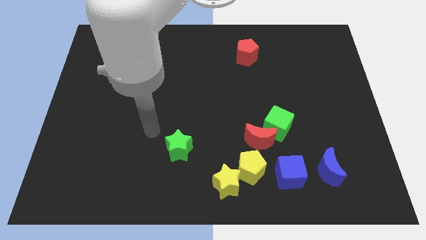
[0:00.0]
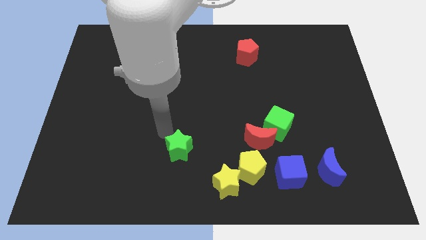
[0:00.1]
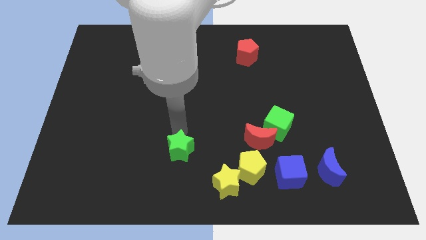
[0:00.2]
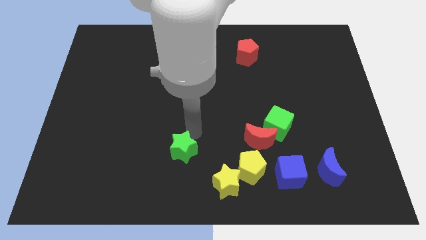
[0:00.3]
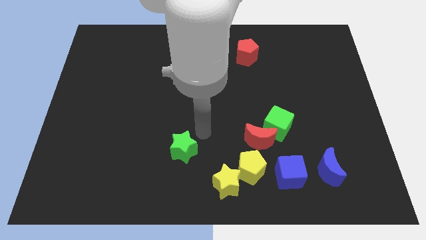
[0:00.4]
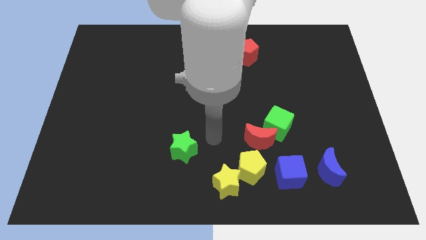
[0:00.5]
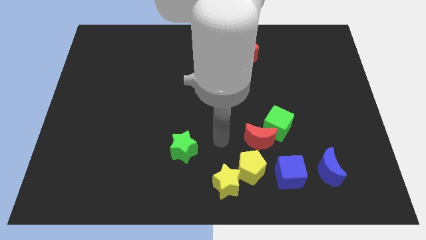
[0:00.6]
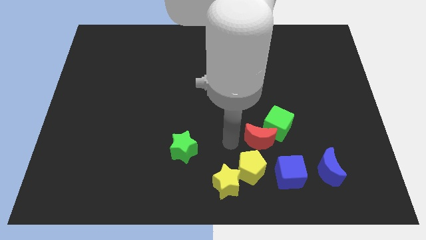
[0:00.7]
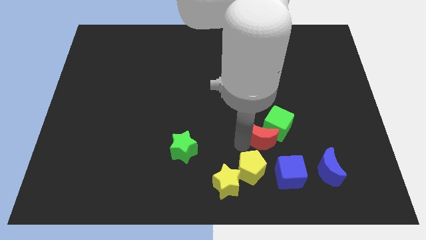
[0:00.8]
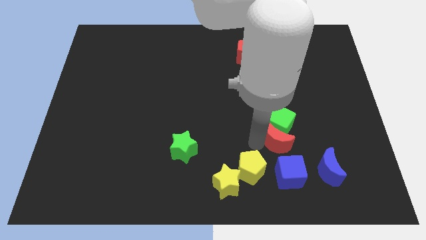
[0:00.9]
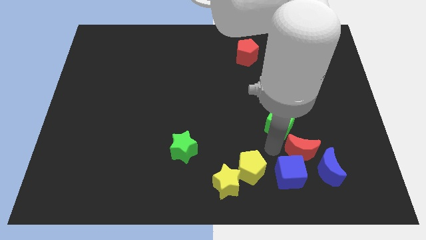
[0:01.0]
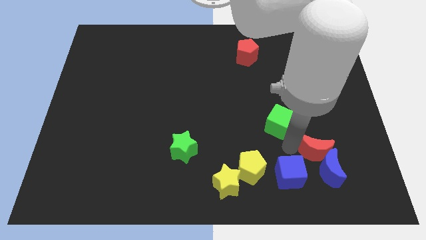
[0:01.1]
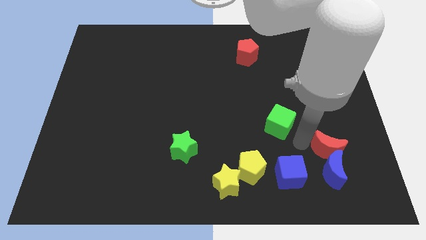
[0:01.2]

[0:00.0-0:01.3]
move the green cube away from the red moon

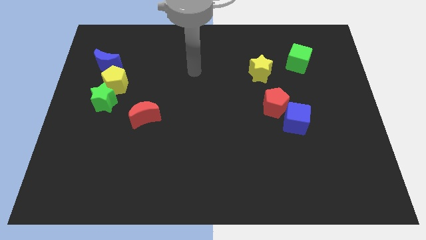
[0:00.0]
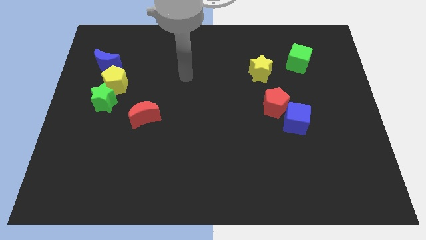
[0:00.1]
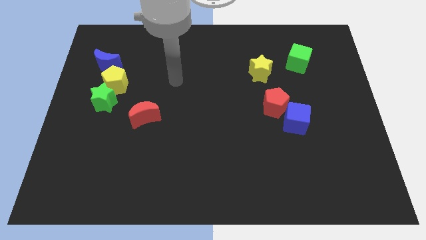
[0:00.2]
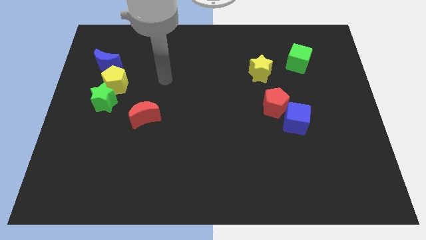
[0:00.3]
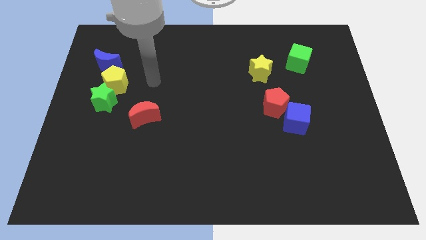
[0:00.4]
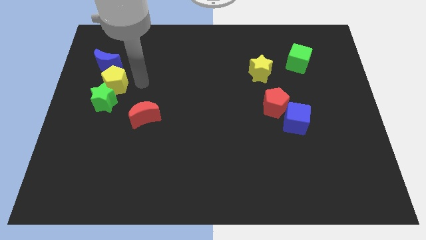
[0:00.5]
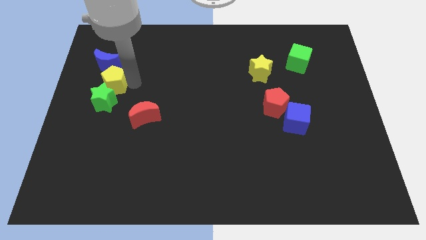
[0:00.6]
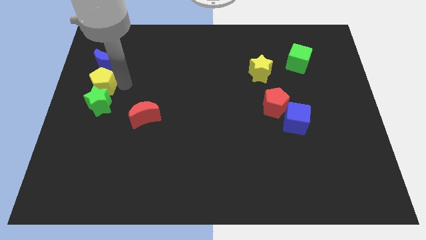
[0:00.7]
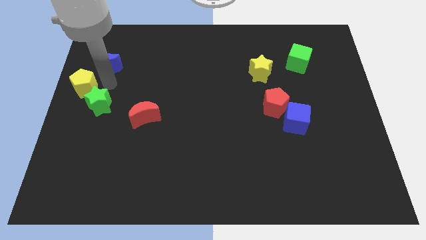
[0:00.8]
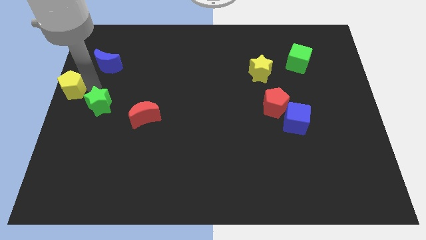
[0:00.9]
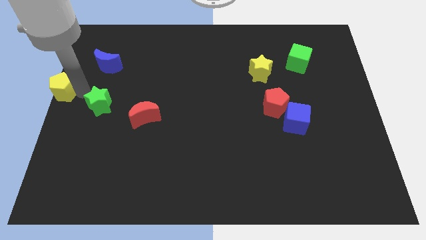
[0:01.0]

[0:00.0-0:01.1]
move the green star away from the yellow pentagon

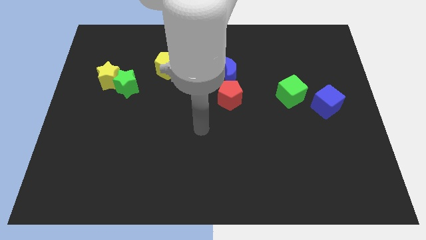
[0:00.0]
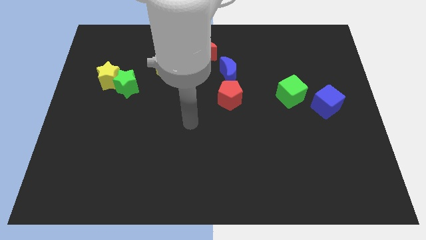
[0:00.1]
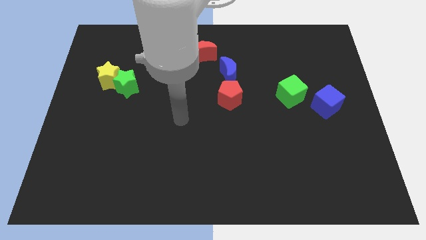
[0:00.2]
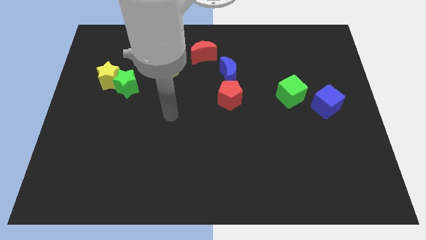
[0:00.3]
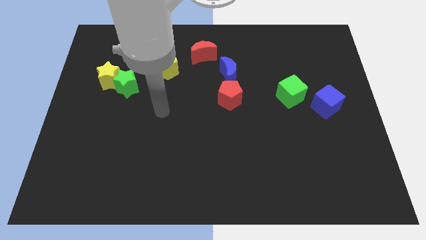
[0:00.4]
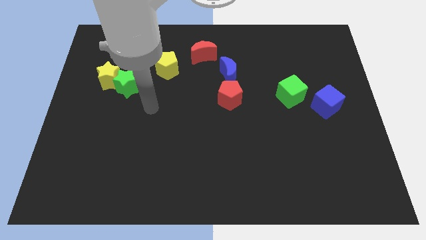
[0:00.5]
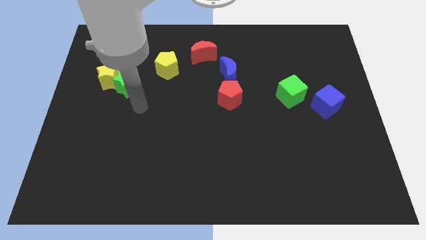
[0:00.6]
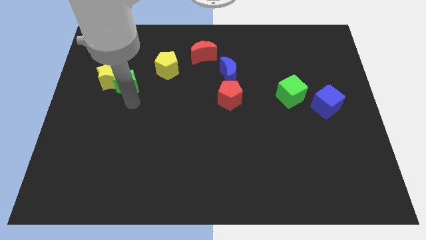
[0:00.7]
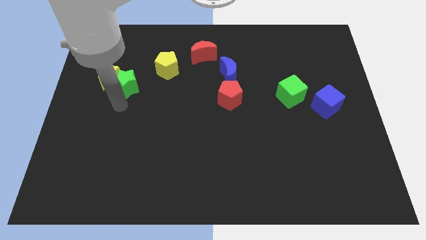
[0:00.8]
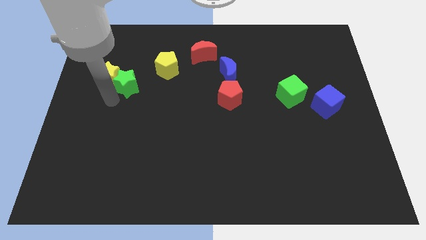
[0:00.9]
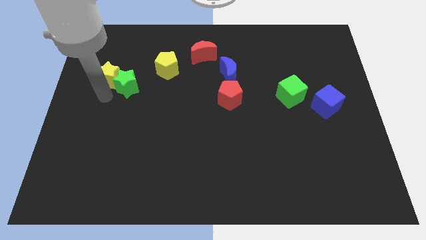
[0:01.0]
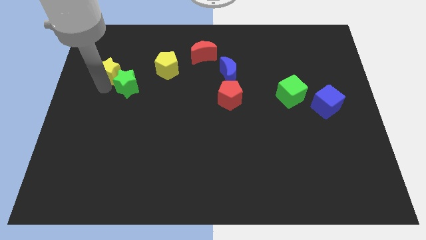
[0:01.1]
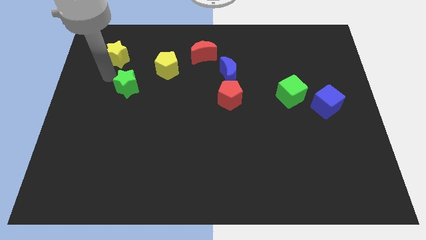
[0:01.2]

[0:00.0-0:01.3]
move the green star away from the yellow star

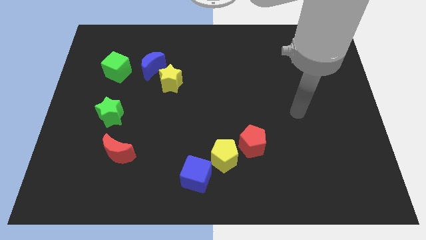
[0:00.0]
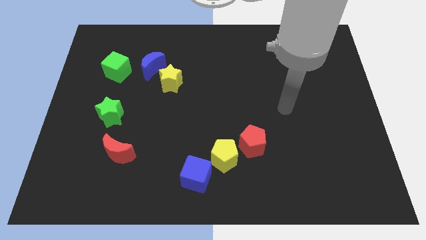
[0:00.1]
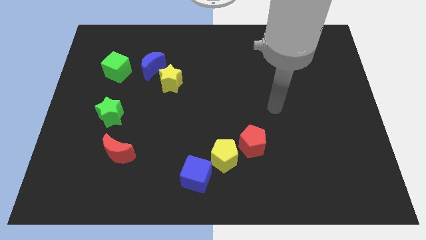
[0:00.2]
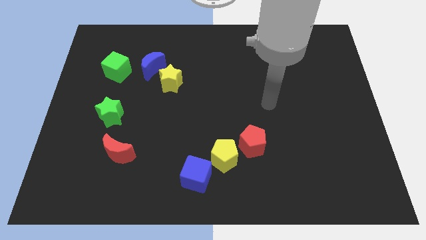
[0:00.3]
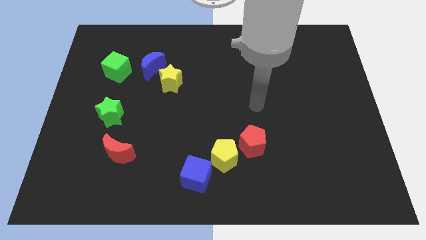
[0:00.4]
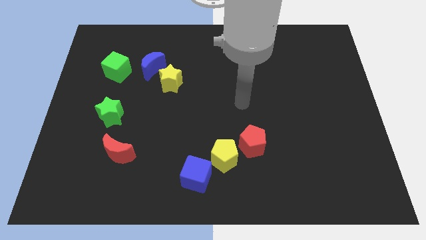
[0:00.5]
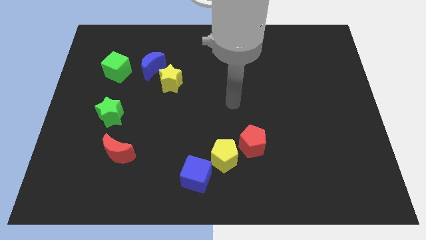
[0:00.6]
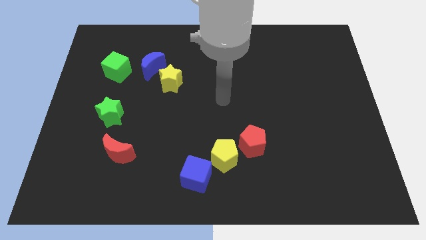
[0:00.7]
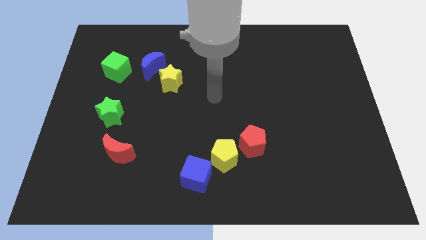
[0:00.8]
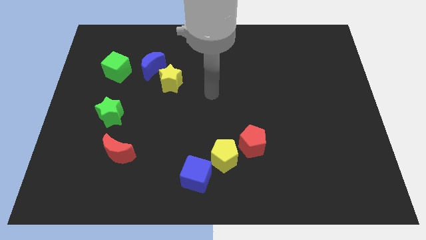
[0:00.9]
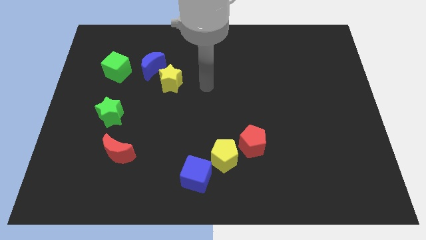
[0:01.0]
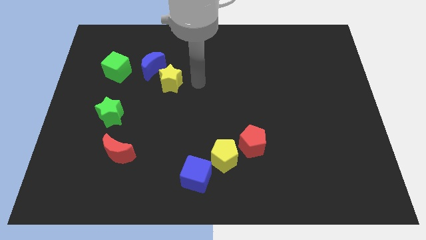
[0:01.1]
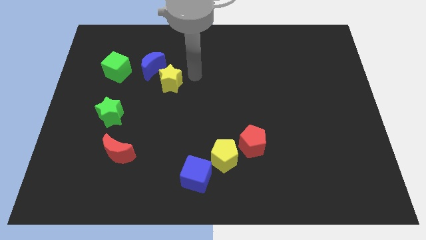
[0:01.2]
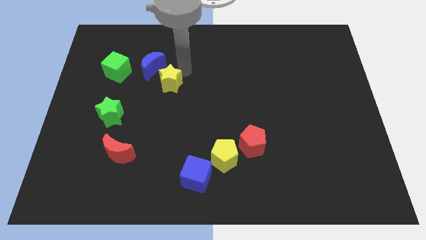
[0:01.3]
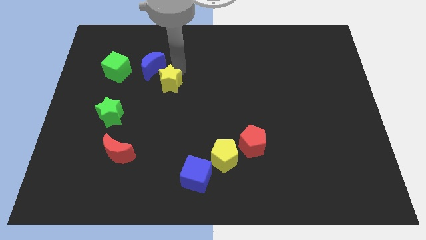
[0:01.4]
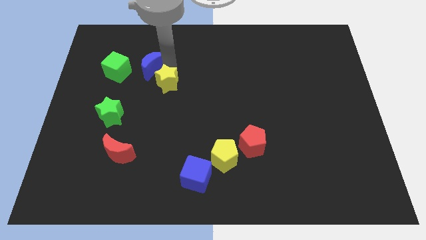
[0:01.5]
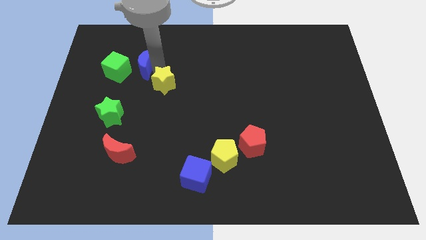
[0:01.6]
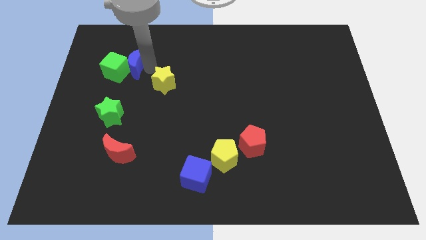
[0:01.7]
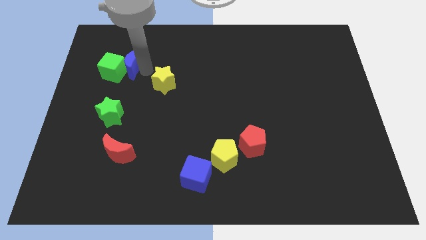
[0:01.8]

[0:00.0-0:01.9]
separate the yellow star from the blue moon

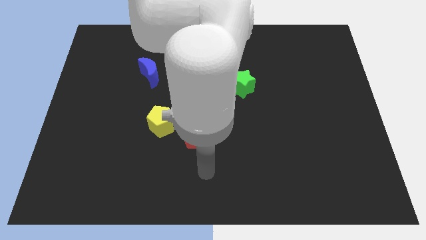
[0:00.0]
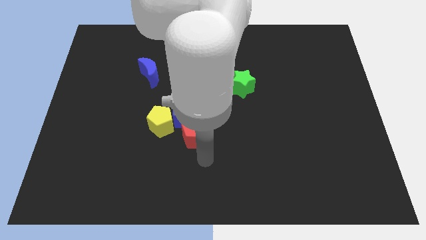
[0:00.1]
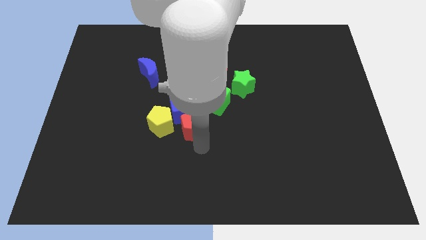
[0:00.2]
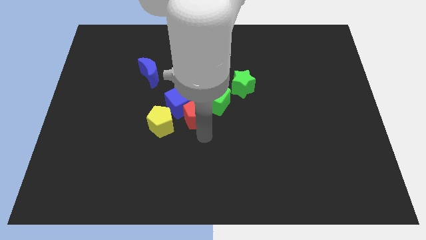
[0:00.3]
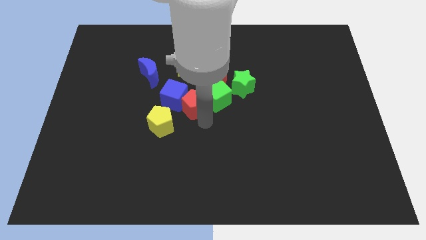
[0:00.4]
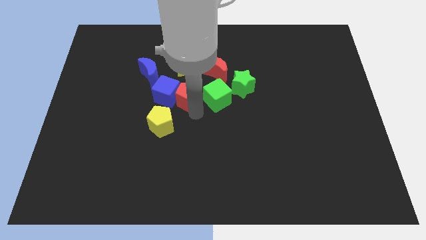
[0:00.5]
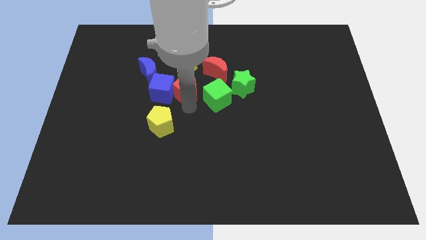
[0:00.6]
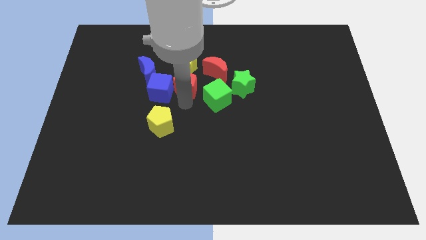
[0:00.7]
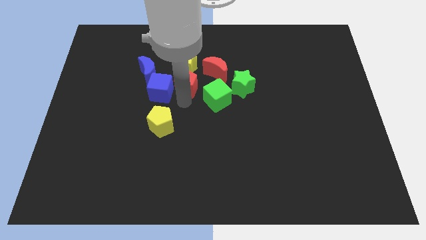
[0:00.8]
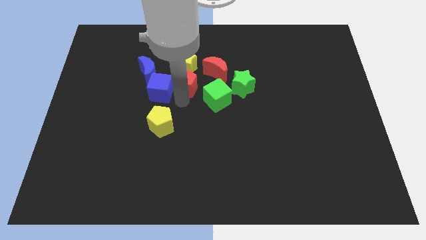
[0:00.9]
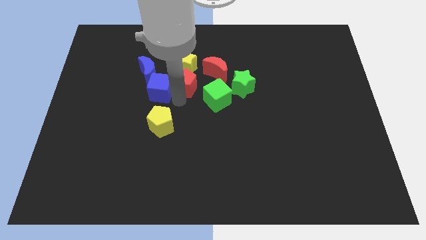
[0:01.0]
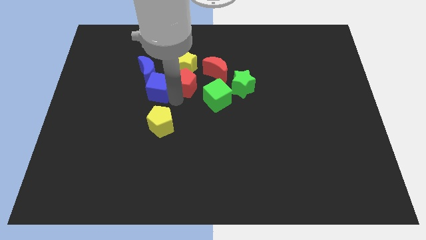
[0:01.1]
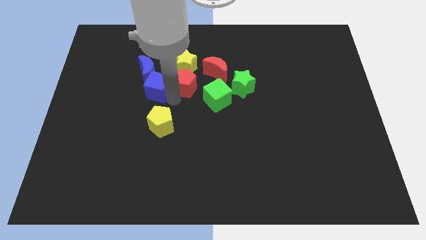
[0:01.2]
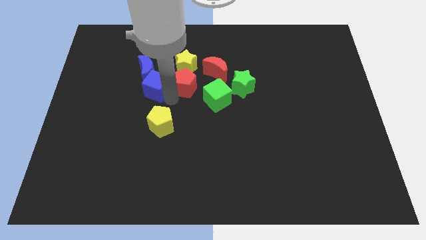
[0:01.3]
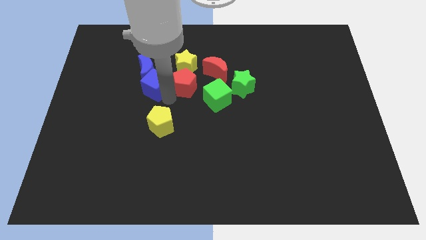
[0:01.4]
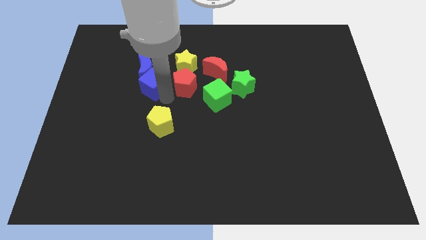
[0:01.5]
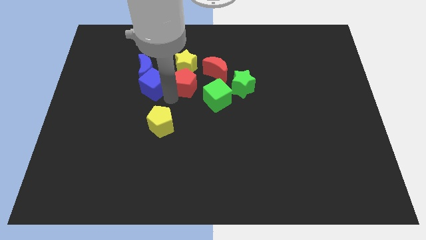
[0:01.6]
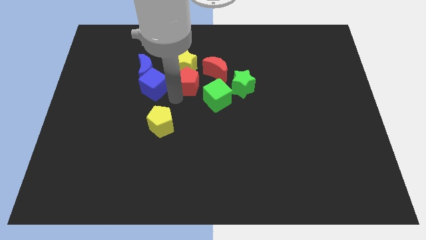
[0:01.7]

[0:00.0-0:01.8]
separate the blue cube from the yellow pentagon, red pentagon, and green cube

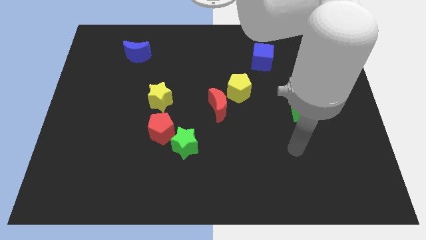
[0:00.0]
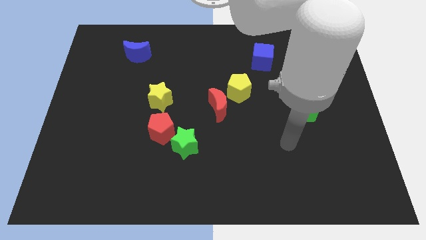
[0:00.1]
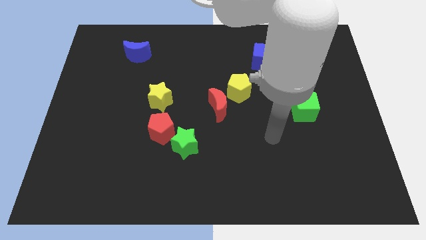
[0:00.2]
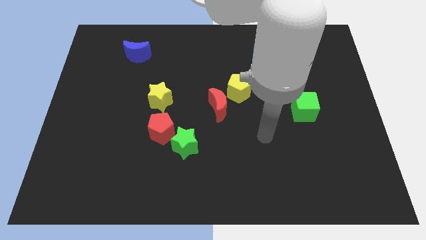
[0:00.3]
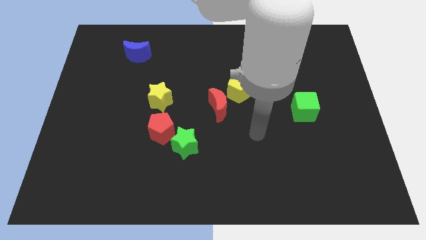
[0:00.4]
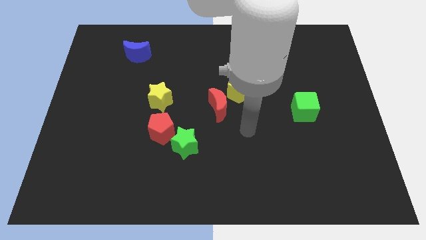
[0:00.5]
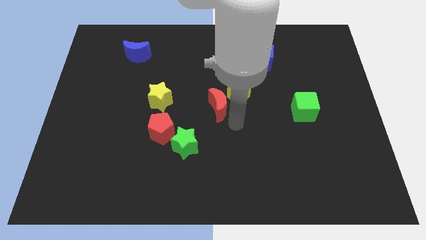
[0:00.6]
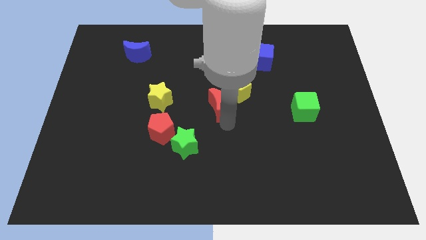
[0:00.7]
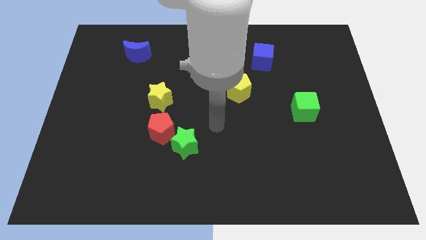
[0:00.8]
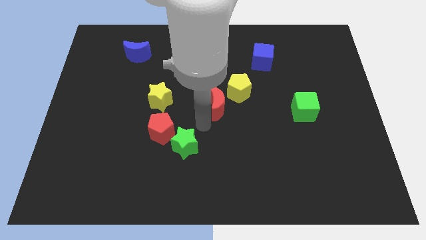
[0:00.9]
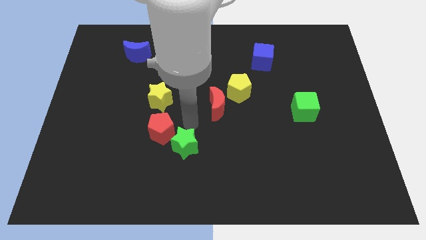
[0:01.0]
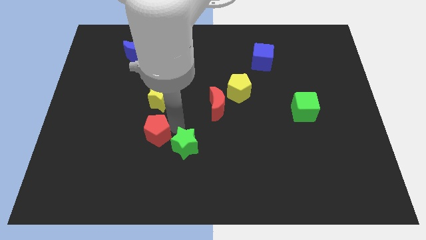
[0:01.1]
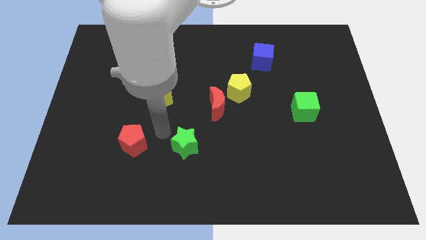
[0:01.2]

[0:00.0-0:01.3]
move the green star away from the red pentagon

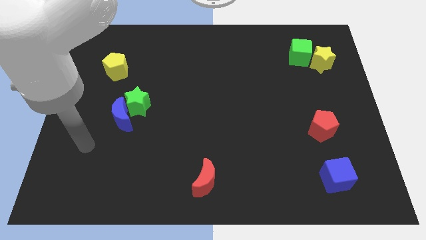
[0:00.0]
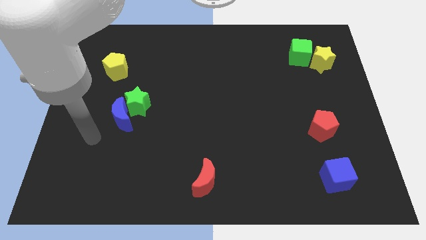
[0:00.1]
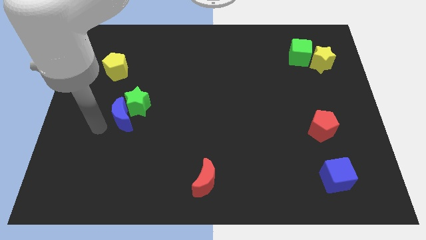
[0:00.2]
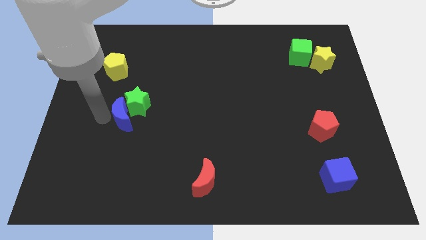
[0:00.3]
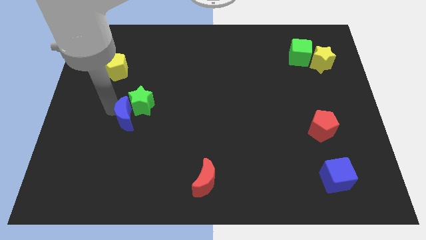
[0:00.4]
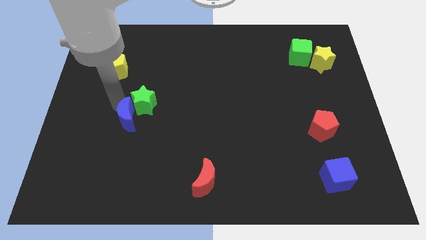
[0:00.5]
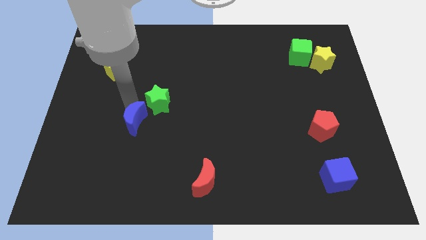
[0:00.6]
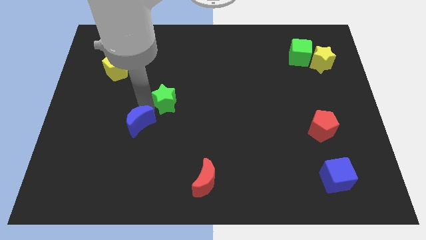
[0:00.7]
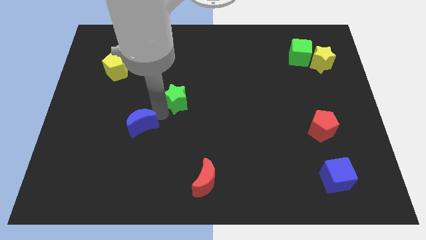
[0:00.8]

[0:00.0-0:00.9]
pull the blue moon apart from the green star
